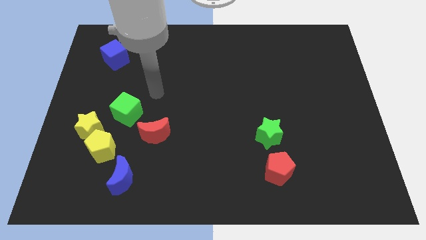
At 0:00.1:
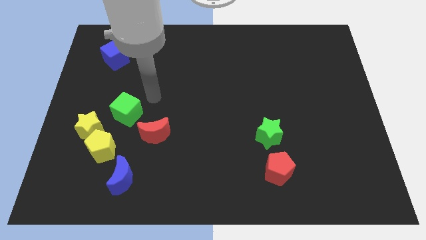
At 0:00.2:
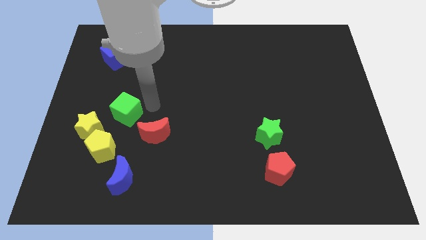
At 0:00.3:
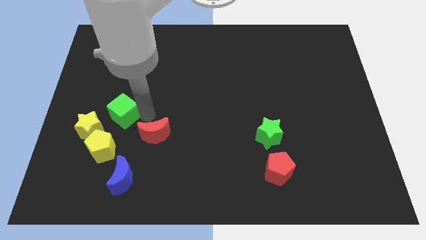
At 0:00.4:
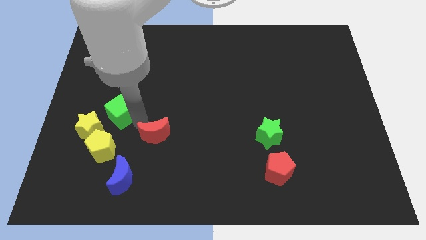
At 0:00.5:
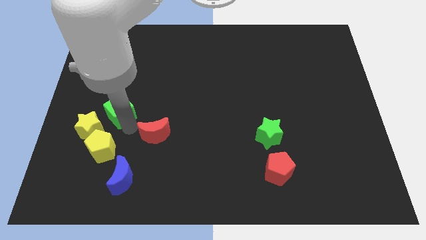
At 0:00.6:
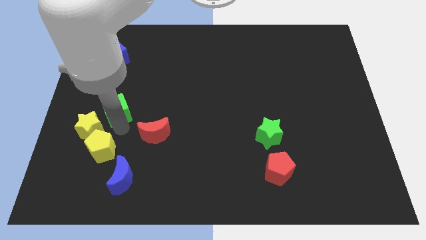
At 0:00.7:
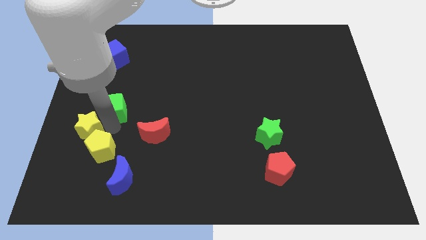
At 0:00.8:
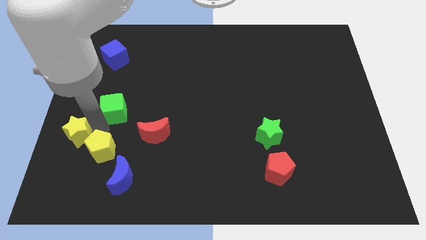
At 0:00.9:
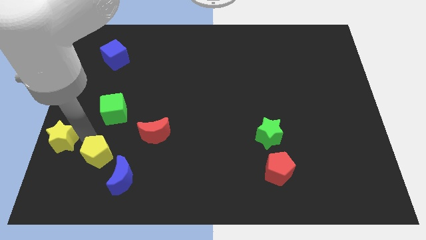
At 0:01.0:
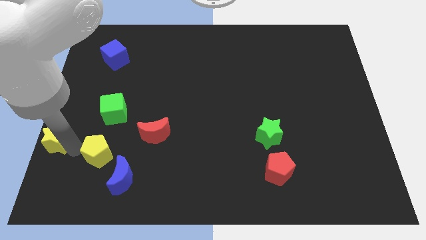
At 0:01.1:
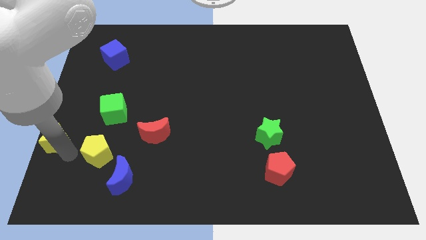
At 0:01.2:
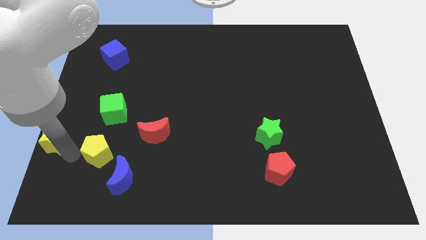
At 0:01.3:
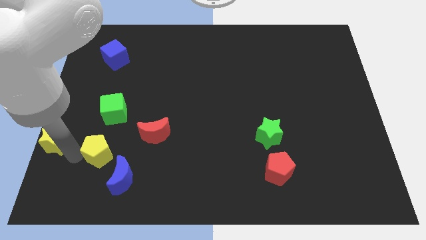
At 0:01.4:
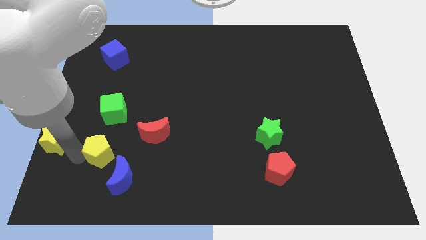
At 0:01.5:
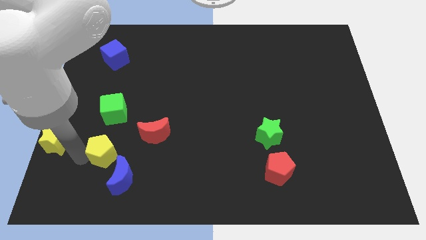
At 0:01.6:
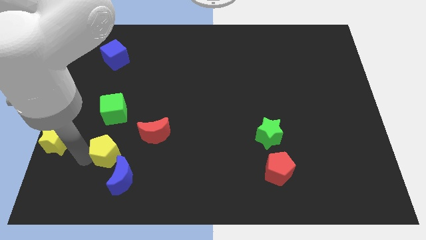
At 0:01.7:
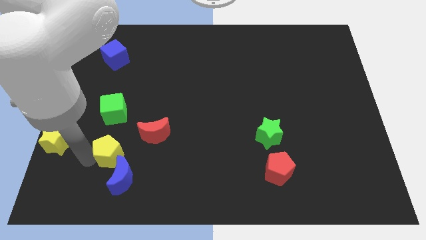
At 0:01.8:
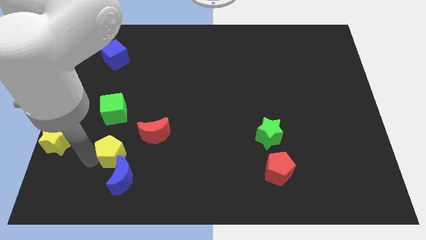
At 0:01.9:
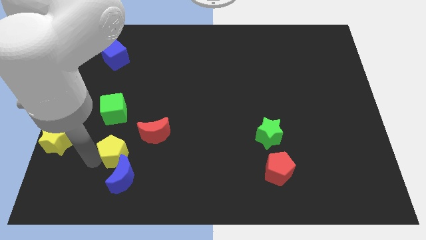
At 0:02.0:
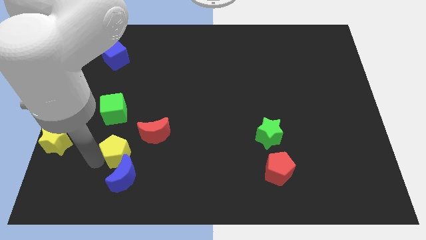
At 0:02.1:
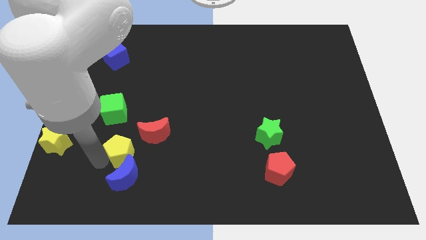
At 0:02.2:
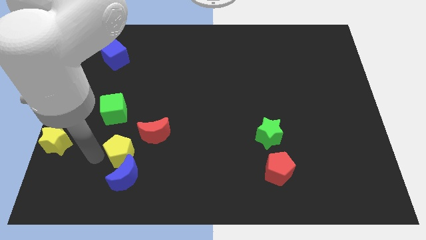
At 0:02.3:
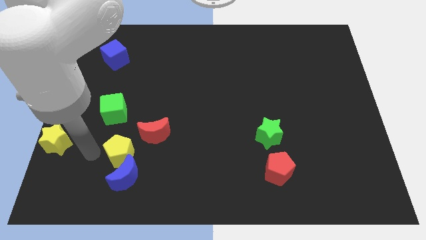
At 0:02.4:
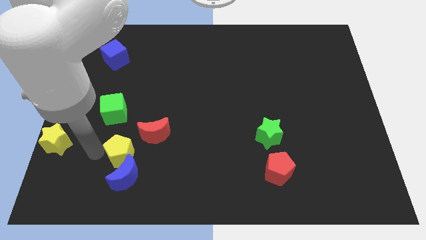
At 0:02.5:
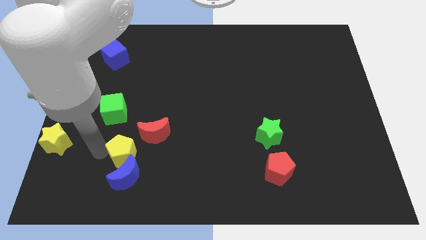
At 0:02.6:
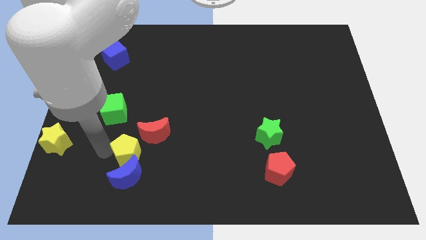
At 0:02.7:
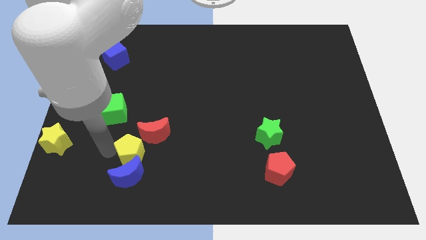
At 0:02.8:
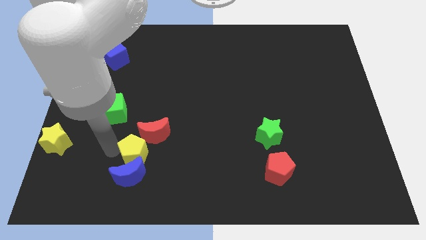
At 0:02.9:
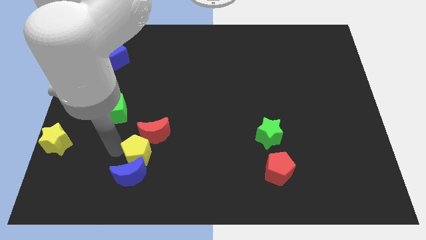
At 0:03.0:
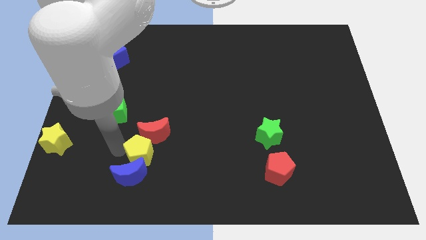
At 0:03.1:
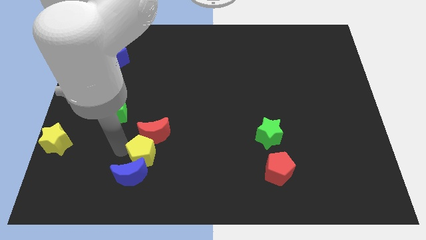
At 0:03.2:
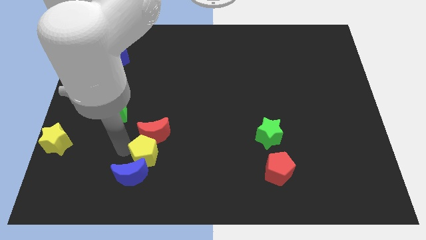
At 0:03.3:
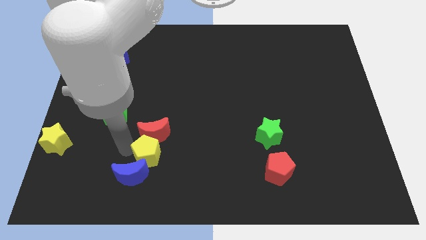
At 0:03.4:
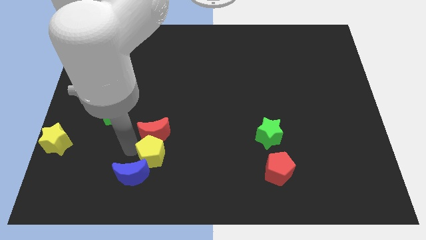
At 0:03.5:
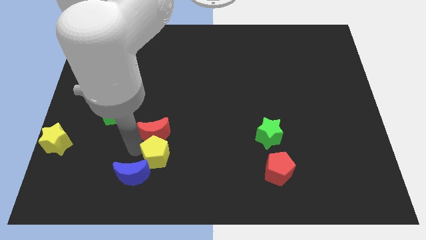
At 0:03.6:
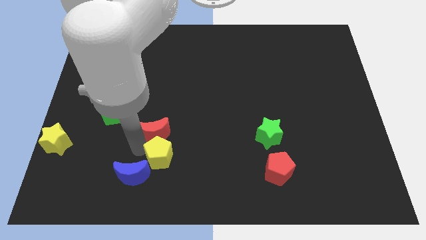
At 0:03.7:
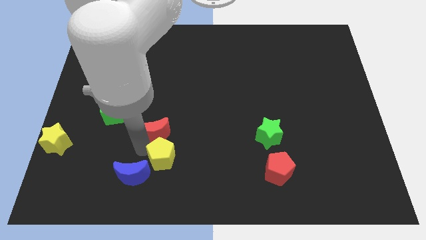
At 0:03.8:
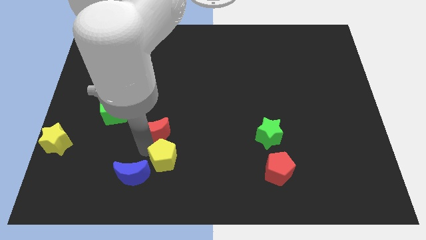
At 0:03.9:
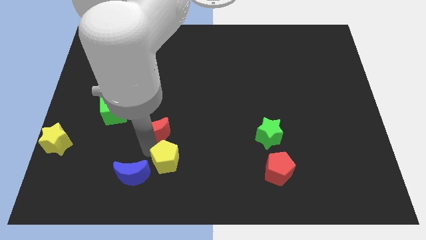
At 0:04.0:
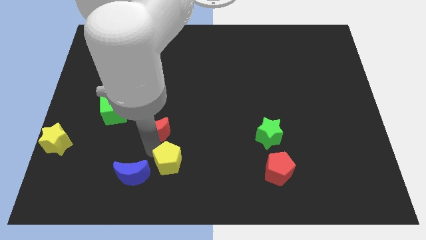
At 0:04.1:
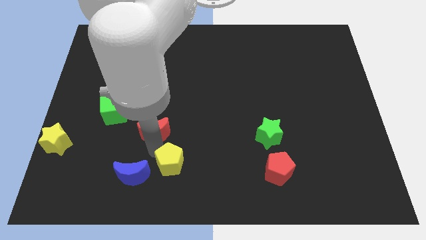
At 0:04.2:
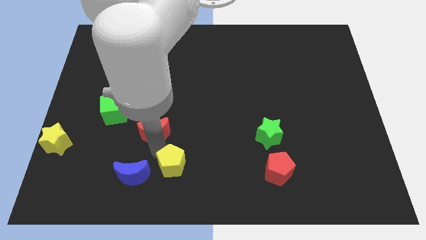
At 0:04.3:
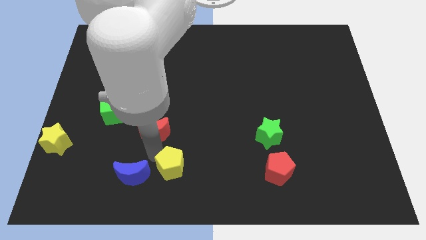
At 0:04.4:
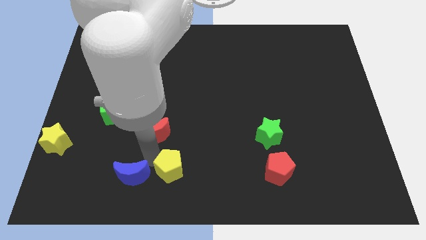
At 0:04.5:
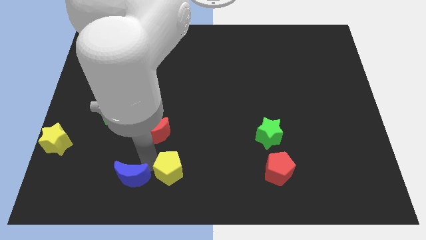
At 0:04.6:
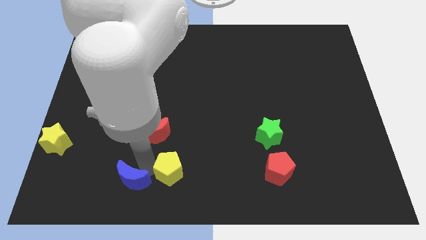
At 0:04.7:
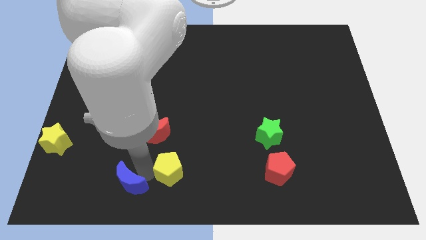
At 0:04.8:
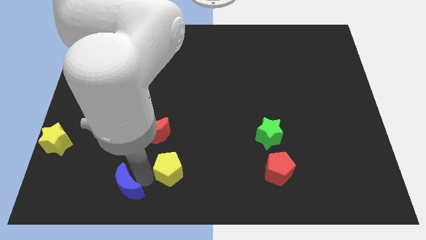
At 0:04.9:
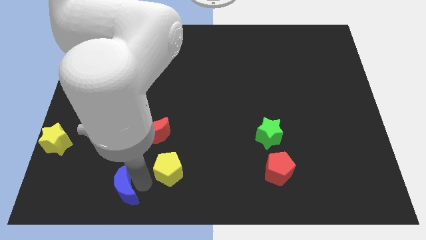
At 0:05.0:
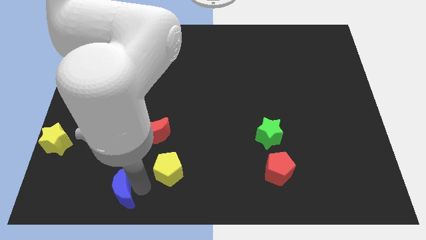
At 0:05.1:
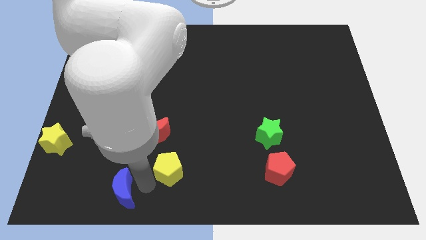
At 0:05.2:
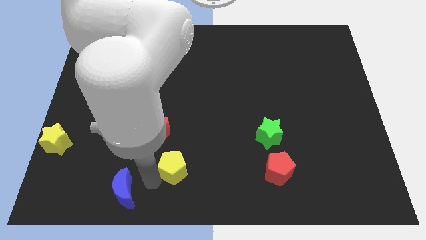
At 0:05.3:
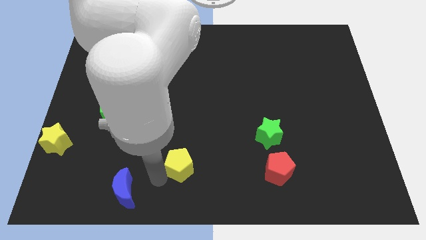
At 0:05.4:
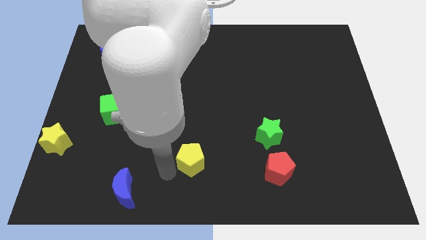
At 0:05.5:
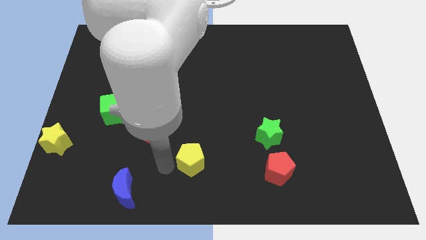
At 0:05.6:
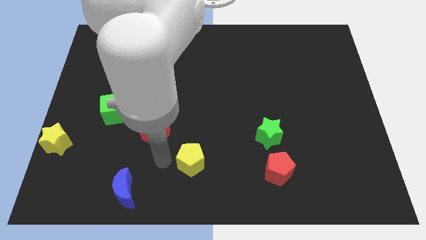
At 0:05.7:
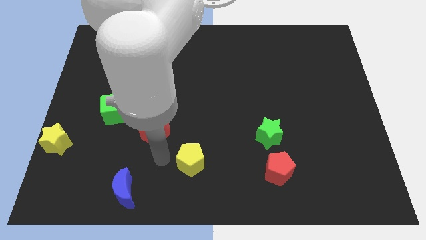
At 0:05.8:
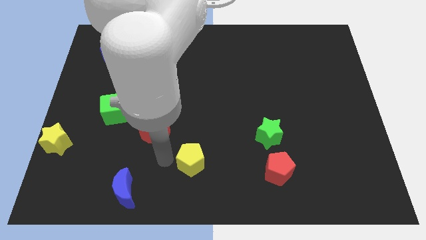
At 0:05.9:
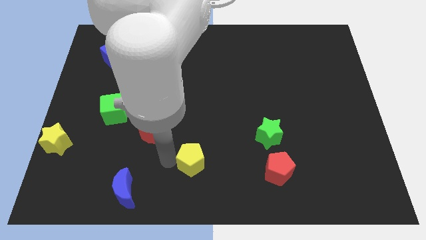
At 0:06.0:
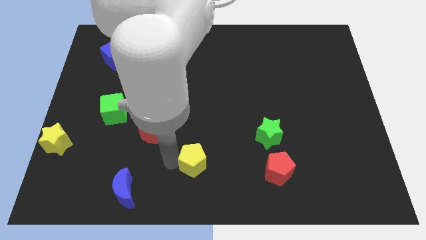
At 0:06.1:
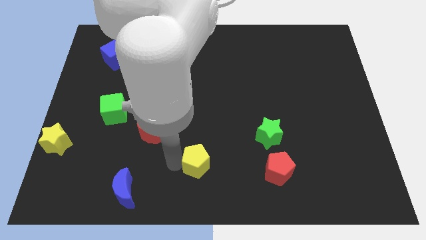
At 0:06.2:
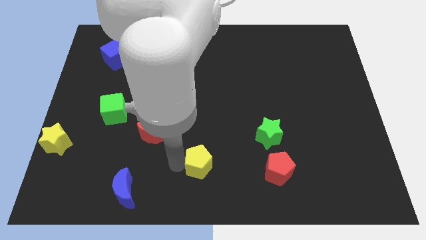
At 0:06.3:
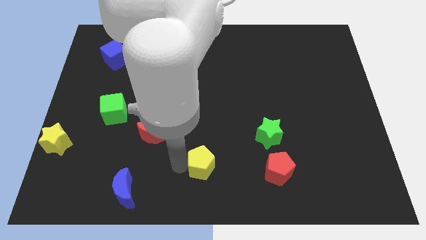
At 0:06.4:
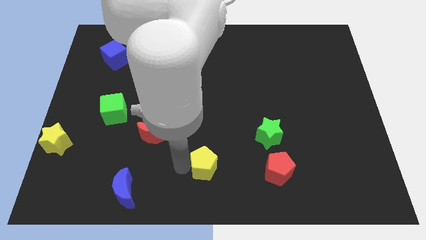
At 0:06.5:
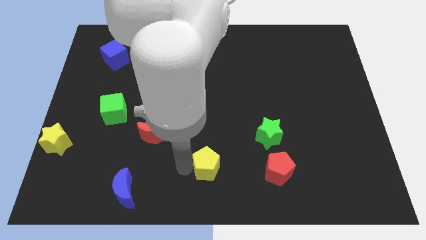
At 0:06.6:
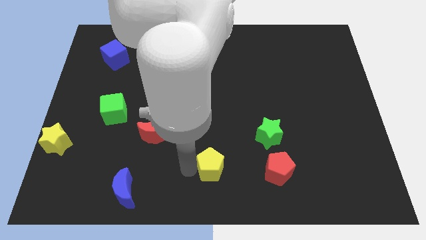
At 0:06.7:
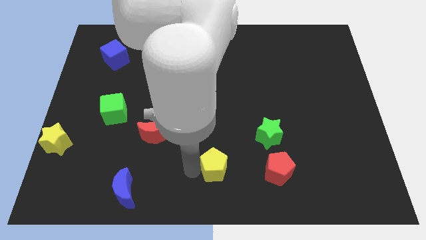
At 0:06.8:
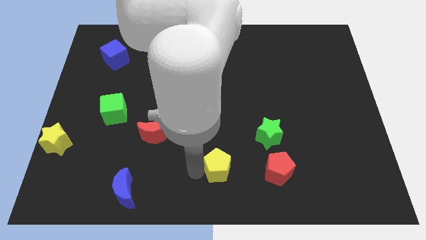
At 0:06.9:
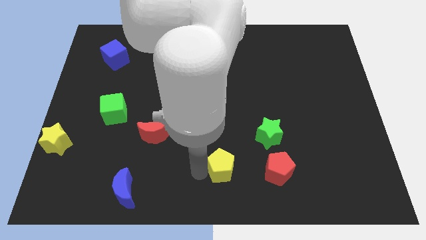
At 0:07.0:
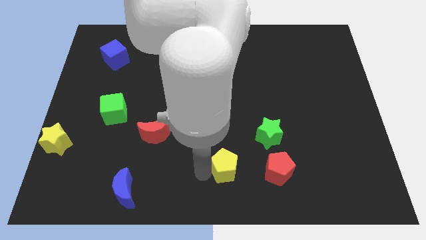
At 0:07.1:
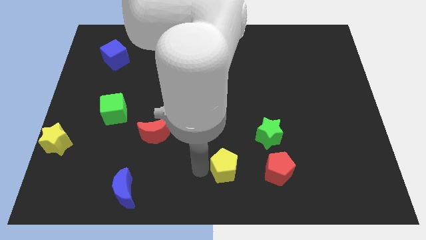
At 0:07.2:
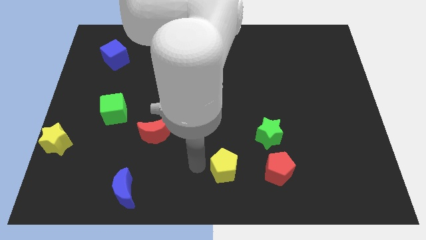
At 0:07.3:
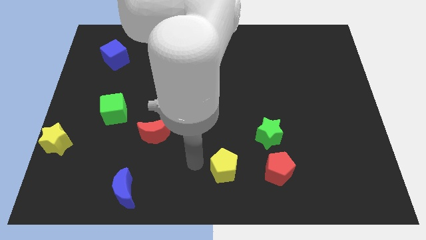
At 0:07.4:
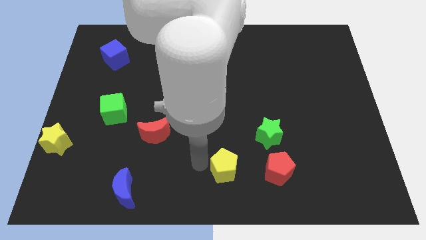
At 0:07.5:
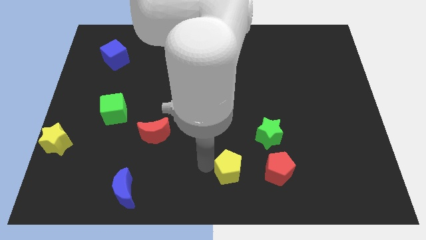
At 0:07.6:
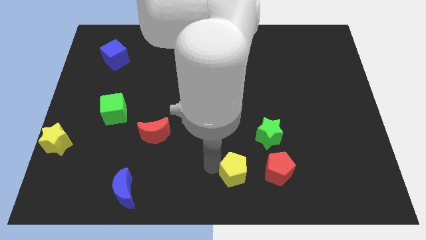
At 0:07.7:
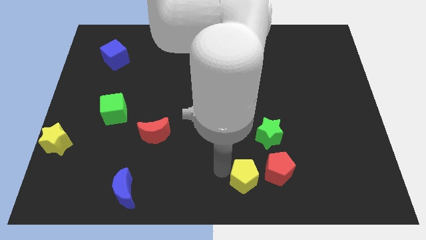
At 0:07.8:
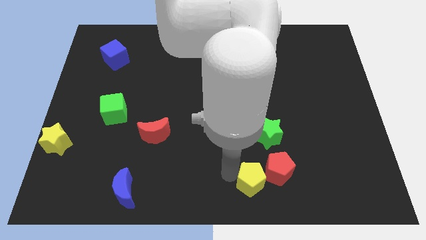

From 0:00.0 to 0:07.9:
move the yellow pentagon next to the red pentagon
